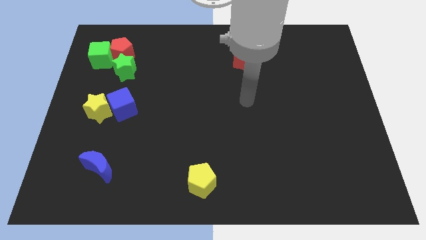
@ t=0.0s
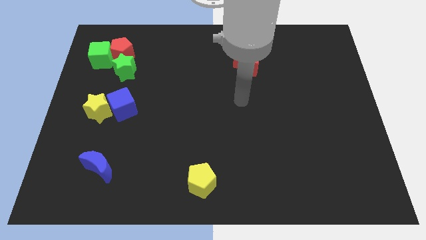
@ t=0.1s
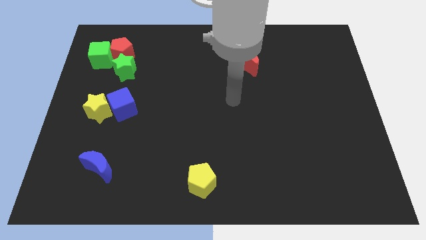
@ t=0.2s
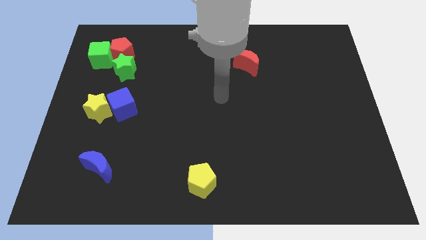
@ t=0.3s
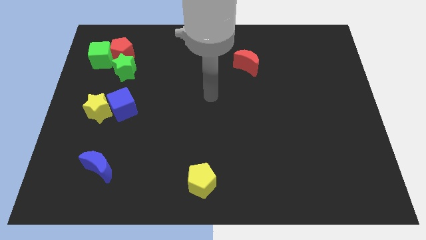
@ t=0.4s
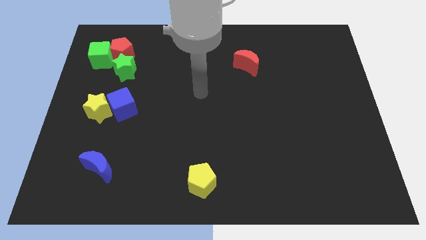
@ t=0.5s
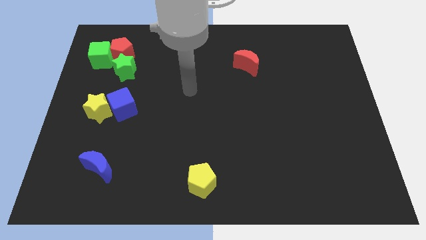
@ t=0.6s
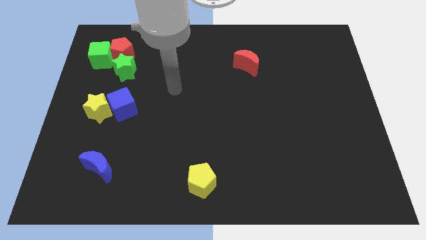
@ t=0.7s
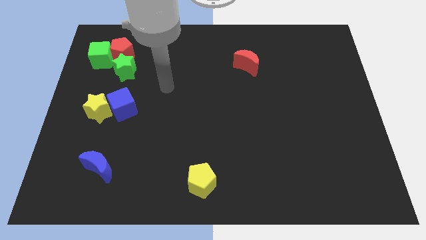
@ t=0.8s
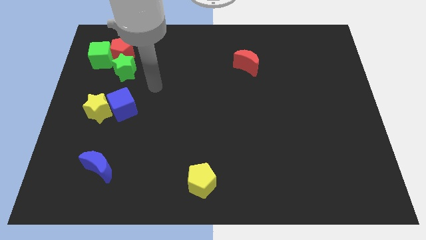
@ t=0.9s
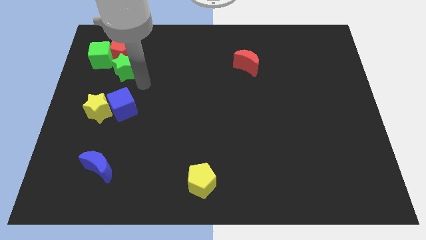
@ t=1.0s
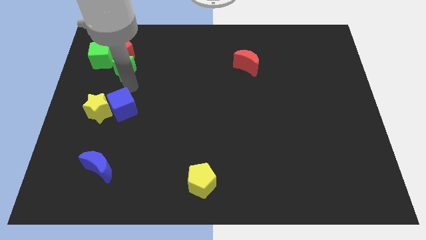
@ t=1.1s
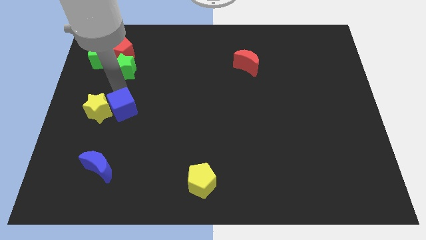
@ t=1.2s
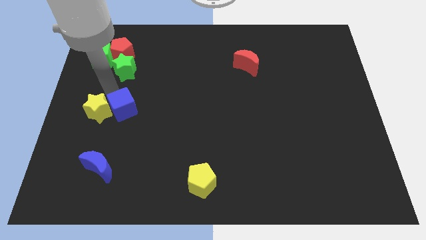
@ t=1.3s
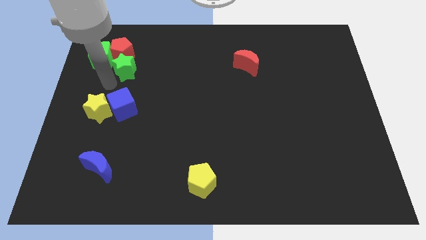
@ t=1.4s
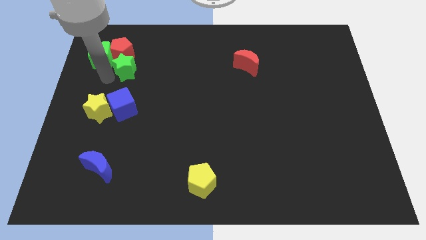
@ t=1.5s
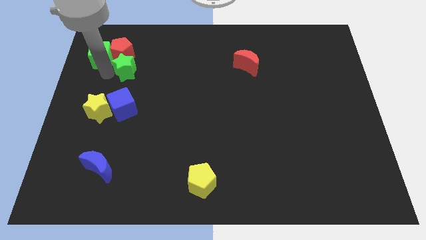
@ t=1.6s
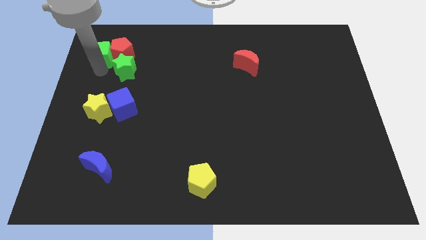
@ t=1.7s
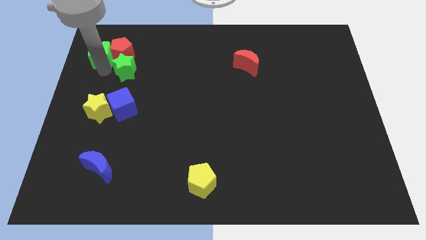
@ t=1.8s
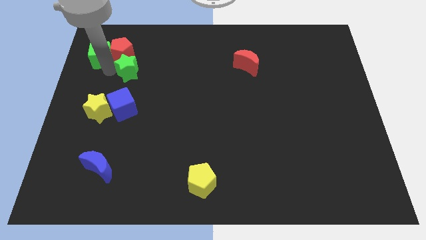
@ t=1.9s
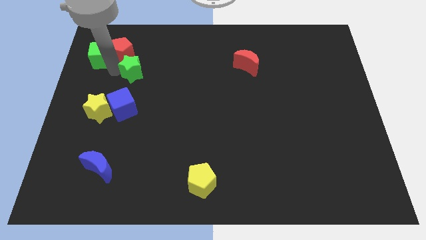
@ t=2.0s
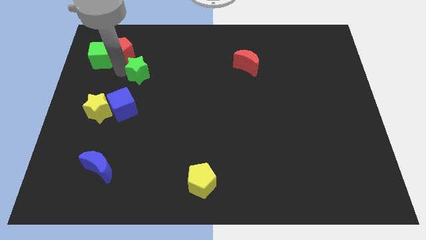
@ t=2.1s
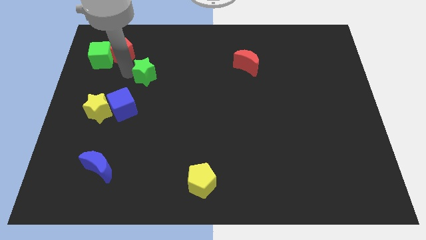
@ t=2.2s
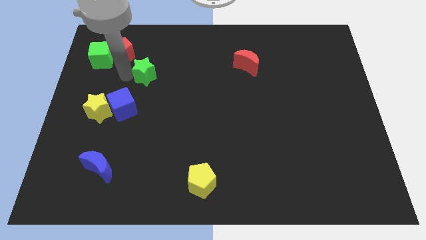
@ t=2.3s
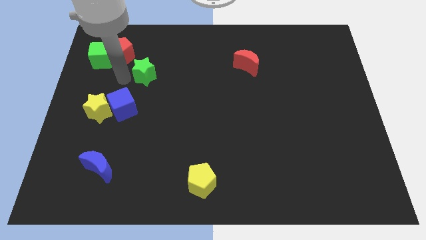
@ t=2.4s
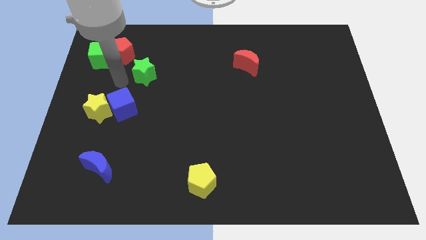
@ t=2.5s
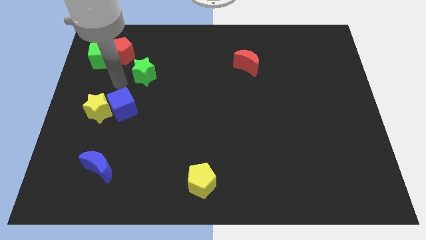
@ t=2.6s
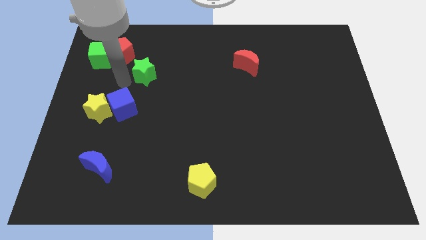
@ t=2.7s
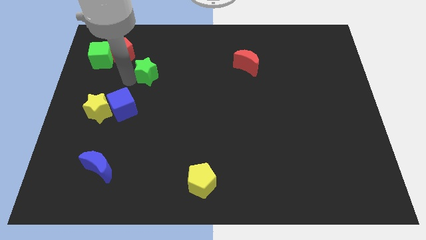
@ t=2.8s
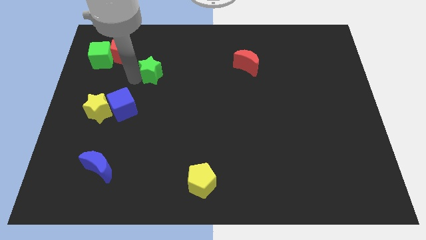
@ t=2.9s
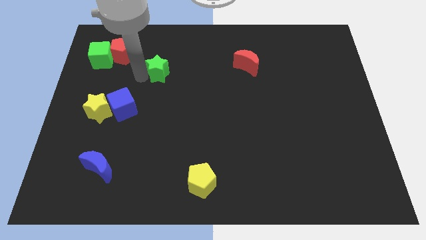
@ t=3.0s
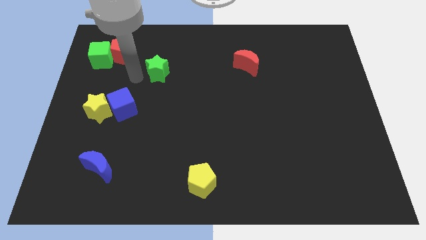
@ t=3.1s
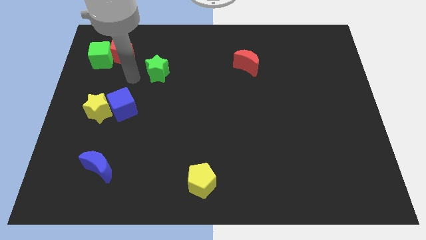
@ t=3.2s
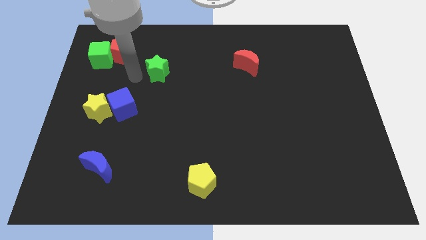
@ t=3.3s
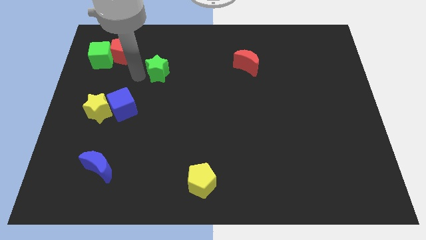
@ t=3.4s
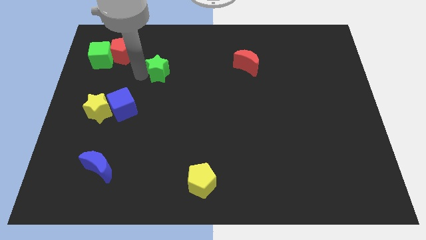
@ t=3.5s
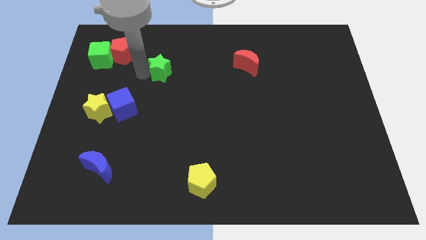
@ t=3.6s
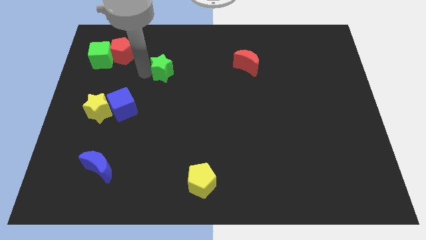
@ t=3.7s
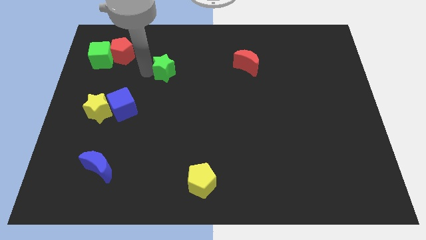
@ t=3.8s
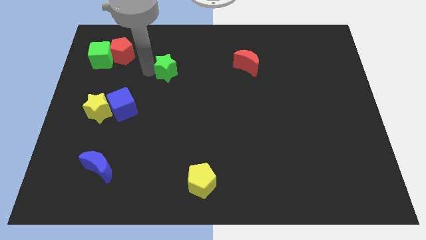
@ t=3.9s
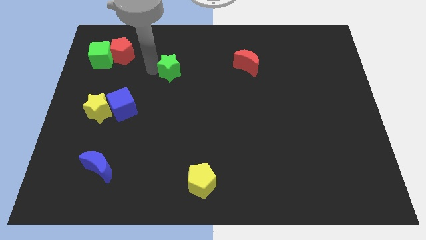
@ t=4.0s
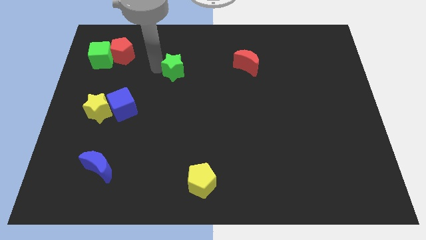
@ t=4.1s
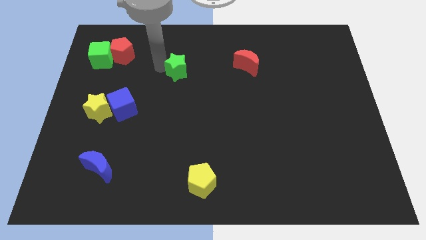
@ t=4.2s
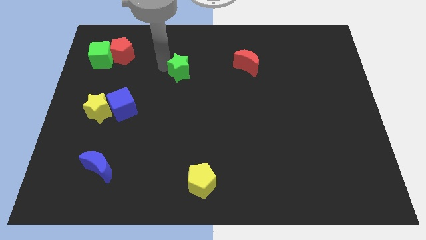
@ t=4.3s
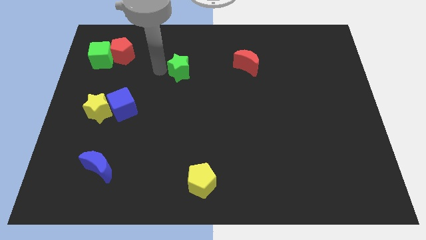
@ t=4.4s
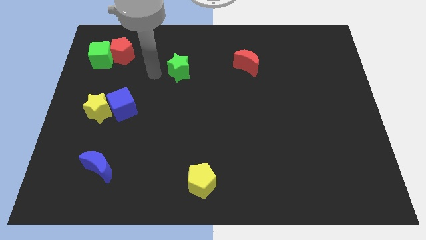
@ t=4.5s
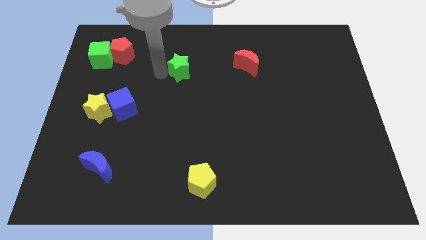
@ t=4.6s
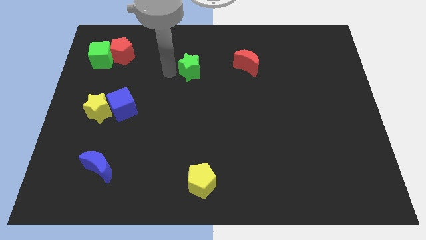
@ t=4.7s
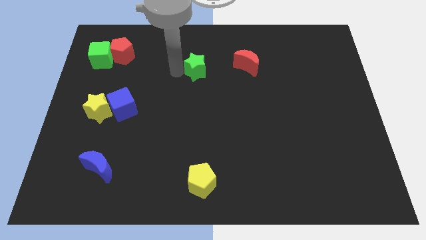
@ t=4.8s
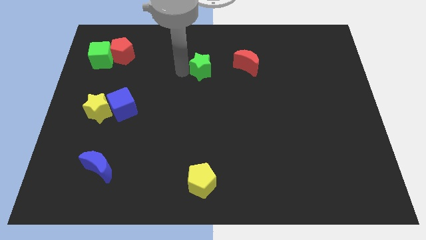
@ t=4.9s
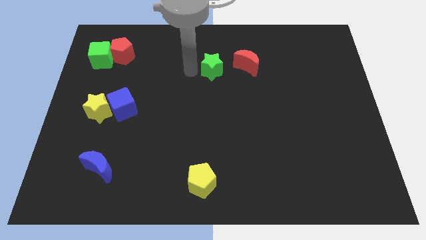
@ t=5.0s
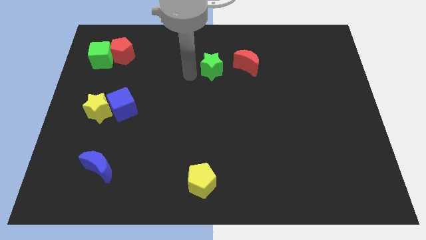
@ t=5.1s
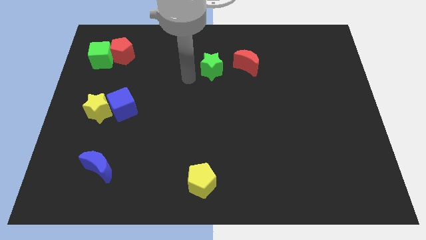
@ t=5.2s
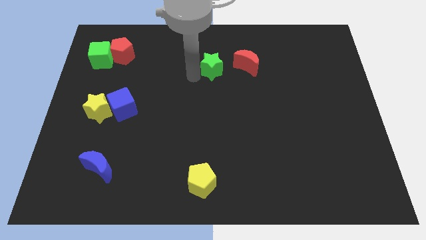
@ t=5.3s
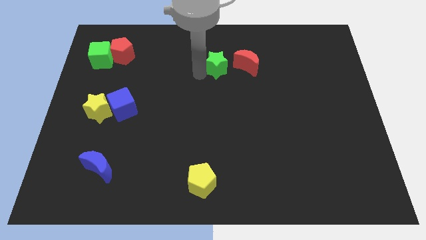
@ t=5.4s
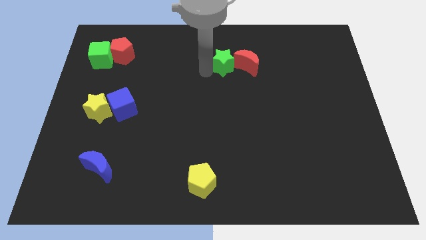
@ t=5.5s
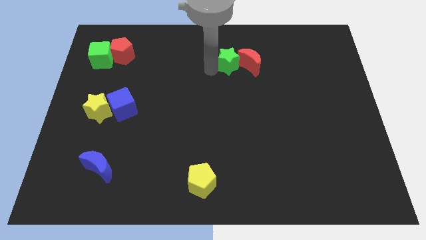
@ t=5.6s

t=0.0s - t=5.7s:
put the green star close to the red moon

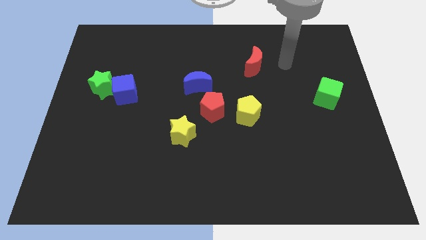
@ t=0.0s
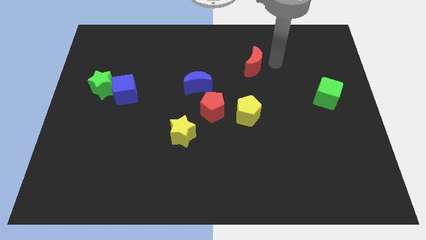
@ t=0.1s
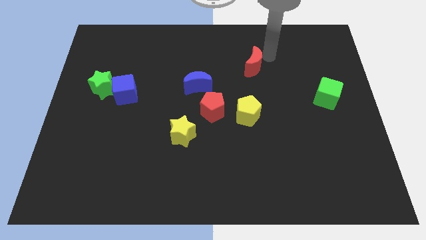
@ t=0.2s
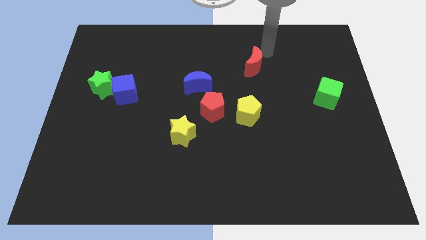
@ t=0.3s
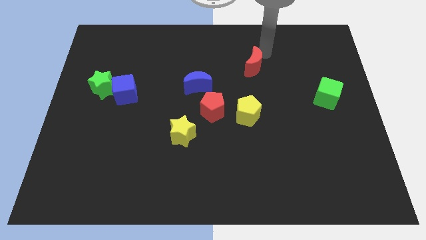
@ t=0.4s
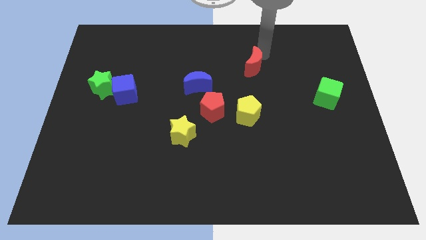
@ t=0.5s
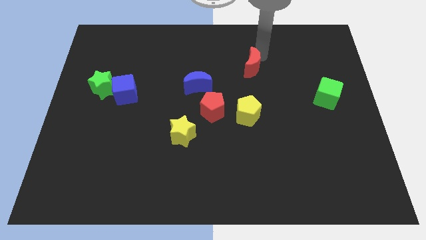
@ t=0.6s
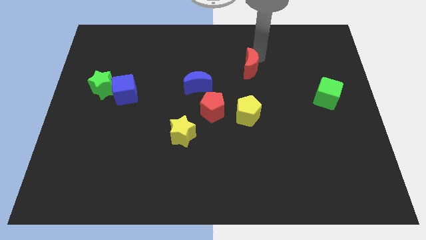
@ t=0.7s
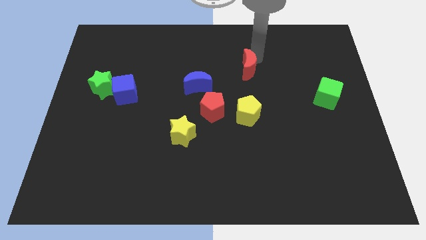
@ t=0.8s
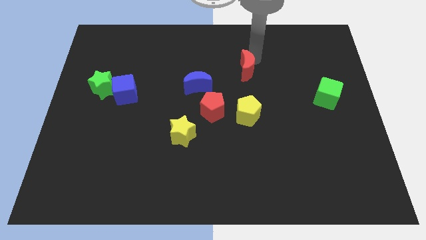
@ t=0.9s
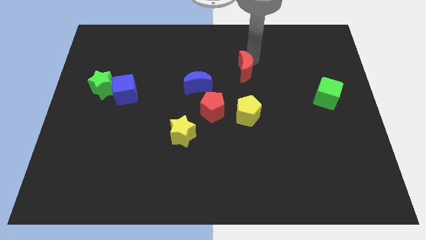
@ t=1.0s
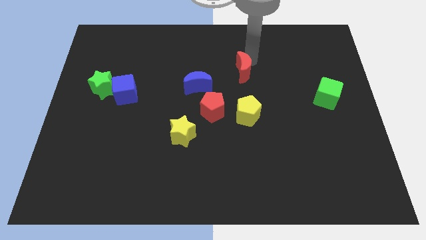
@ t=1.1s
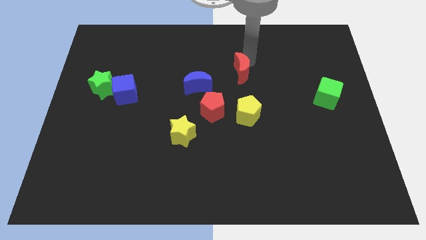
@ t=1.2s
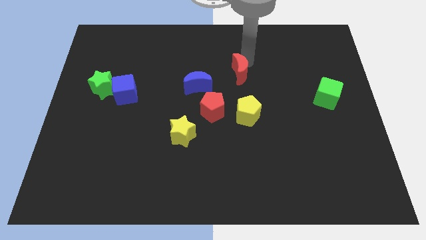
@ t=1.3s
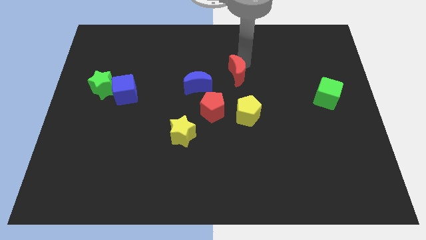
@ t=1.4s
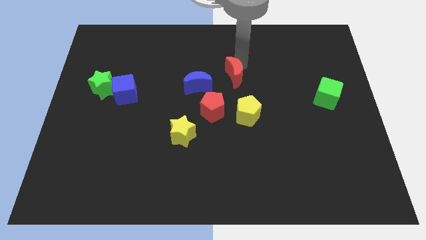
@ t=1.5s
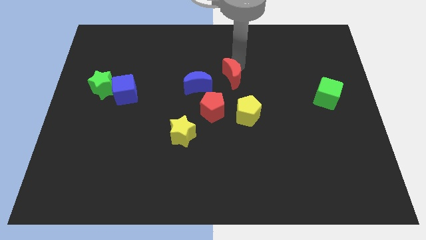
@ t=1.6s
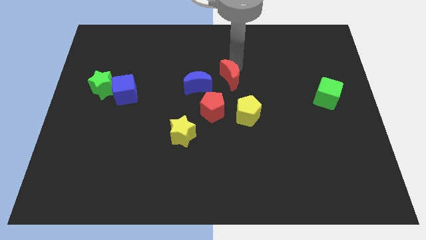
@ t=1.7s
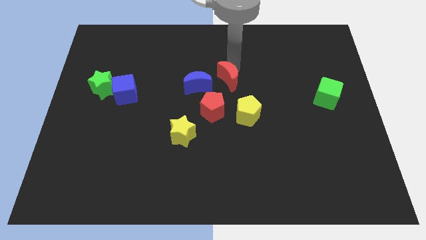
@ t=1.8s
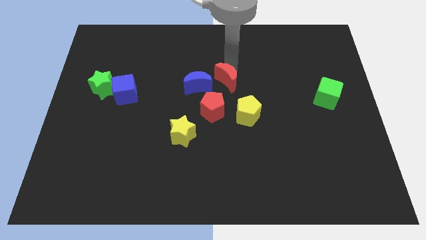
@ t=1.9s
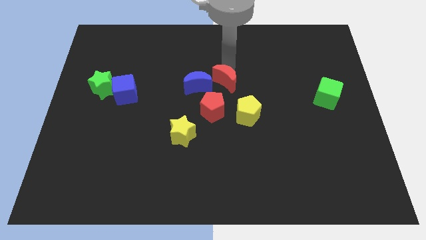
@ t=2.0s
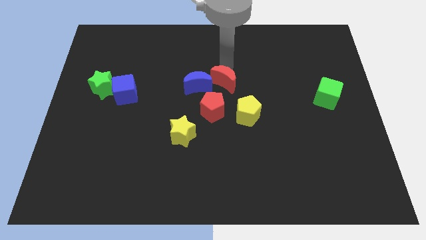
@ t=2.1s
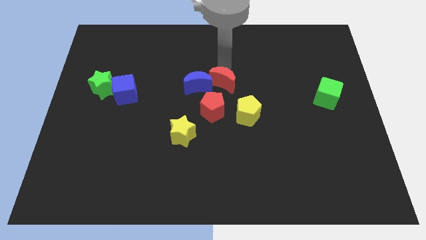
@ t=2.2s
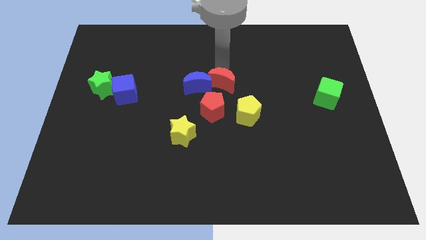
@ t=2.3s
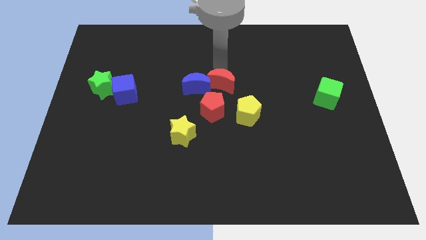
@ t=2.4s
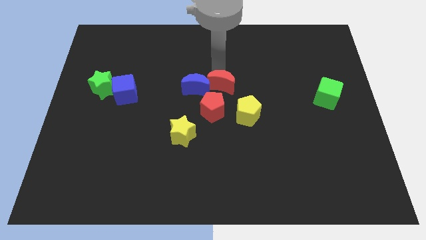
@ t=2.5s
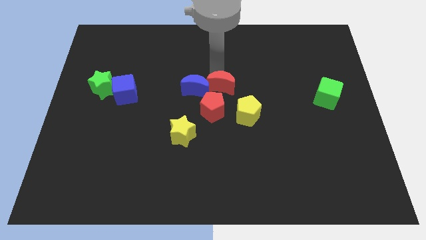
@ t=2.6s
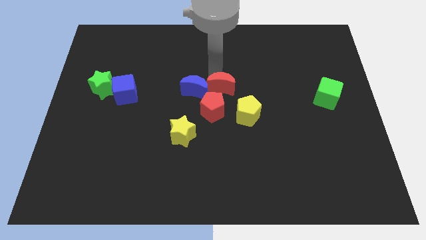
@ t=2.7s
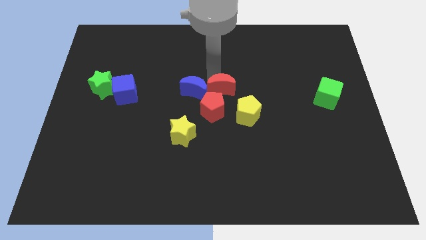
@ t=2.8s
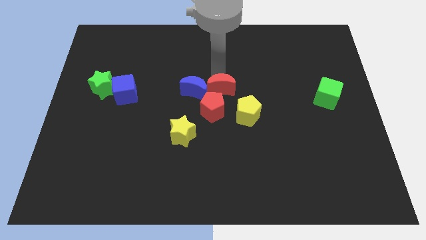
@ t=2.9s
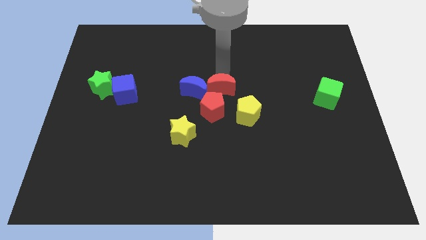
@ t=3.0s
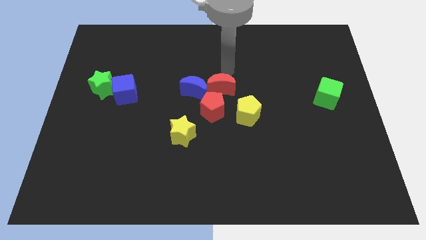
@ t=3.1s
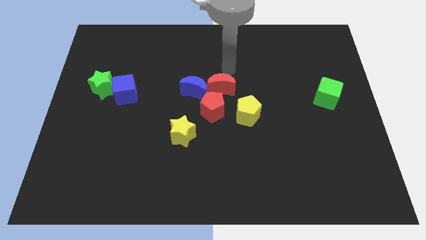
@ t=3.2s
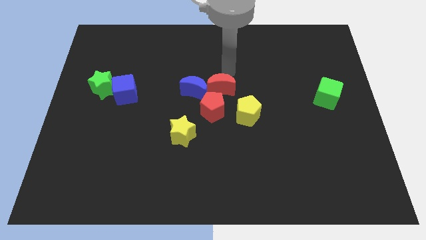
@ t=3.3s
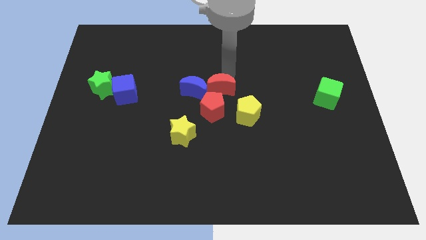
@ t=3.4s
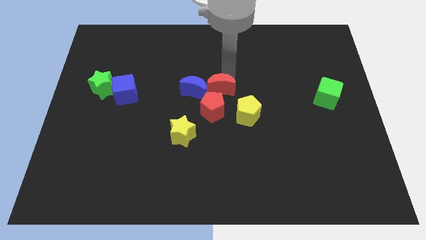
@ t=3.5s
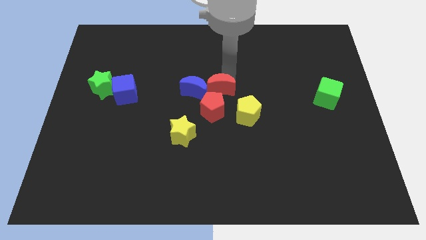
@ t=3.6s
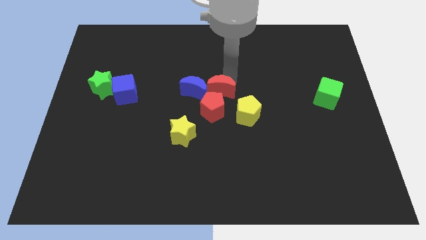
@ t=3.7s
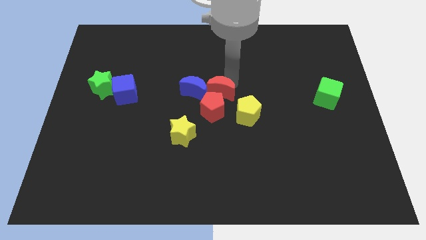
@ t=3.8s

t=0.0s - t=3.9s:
put the red moon towards the red pentagon
